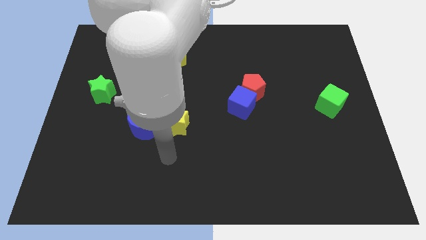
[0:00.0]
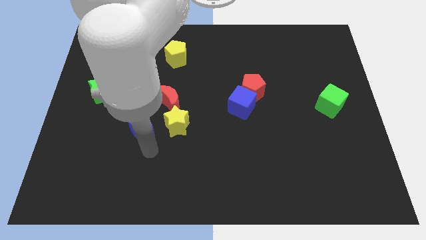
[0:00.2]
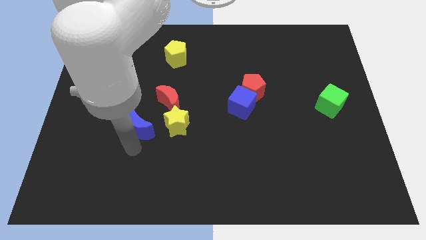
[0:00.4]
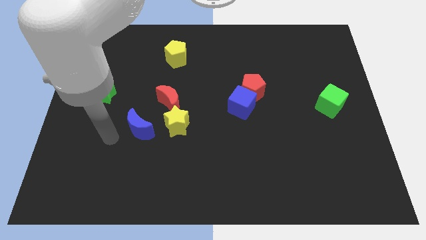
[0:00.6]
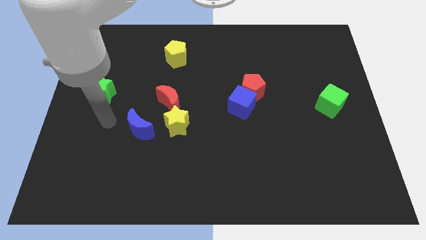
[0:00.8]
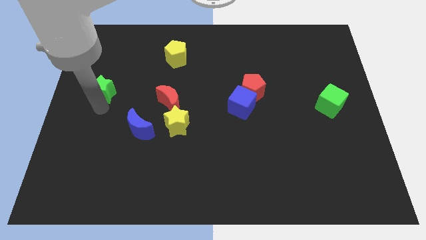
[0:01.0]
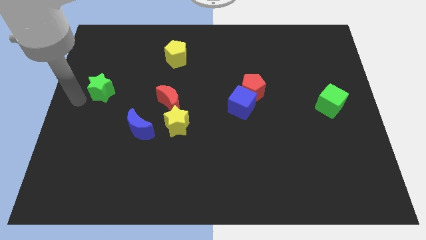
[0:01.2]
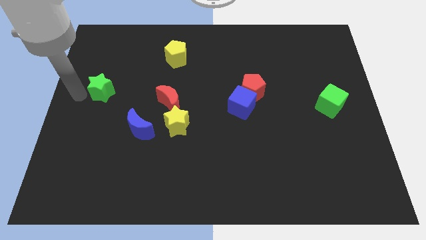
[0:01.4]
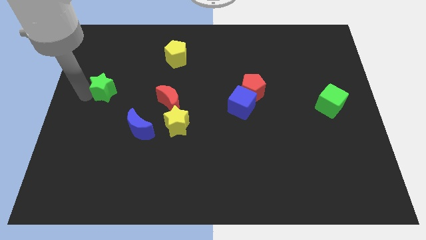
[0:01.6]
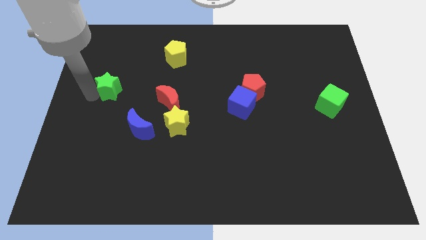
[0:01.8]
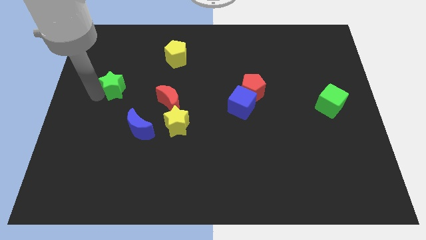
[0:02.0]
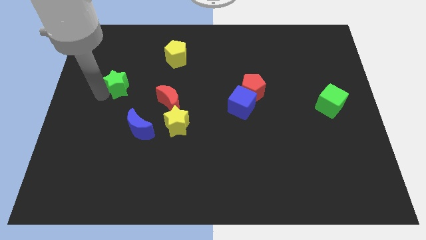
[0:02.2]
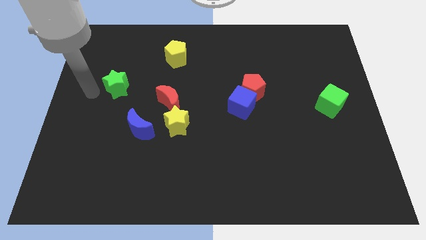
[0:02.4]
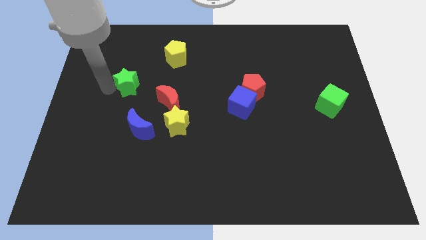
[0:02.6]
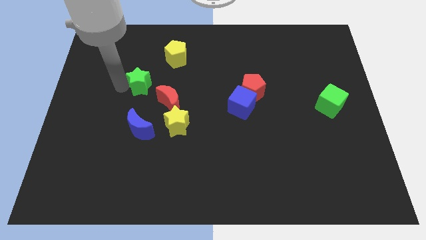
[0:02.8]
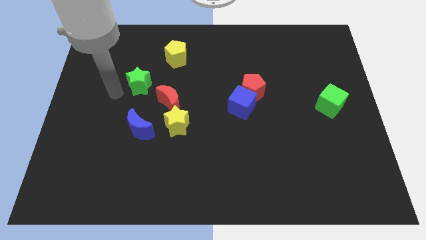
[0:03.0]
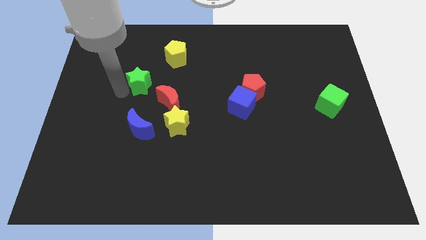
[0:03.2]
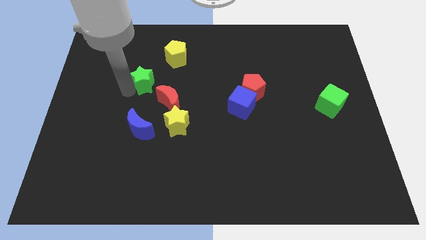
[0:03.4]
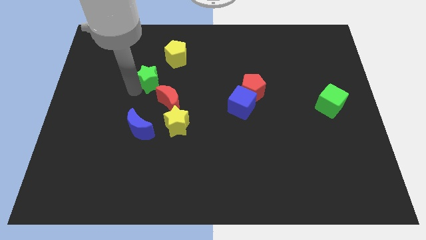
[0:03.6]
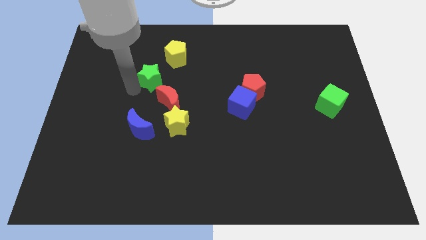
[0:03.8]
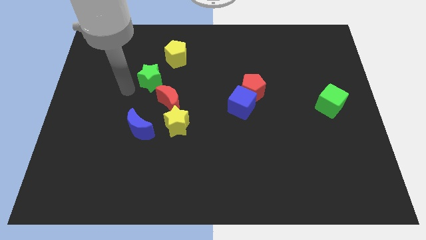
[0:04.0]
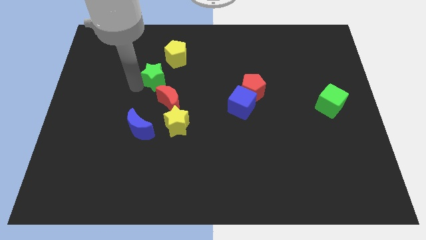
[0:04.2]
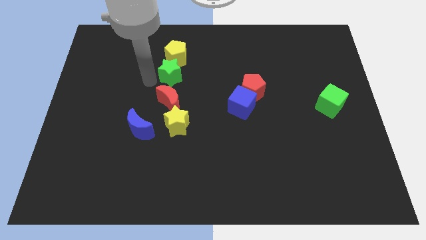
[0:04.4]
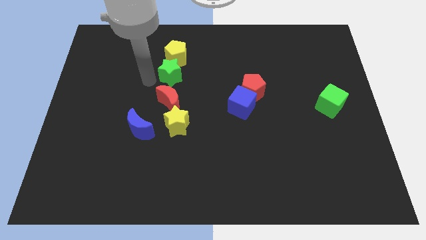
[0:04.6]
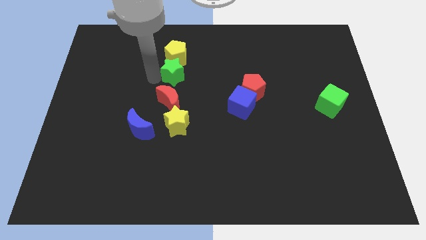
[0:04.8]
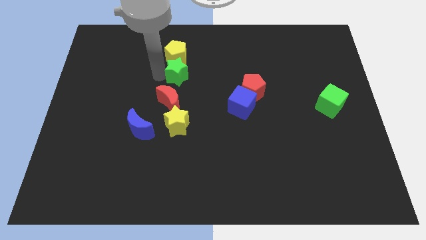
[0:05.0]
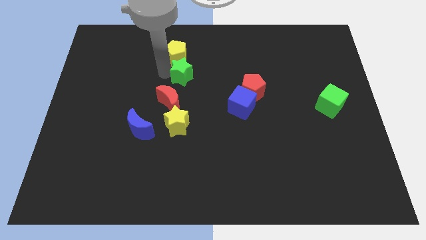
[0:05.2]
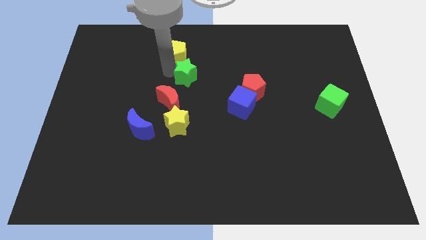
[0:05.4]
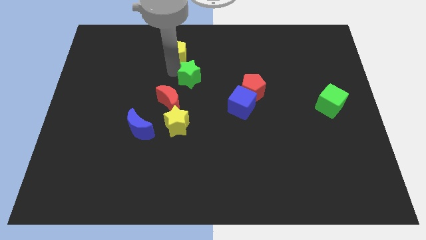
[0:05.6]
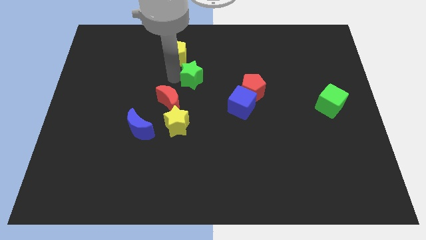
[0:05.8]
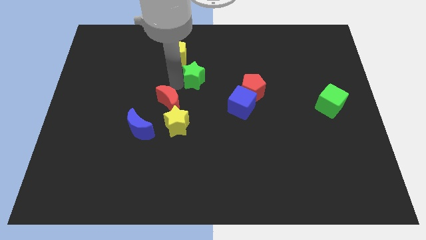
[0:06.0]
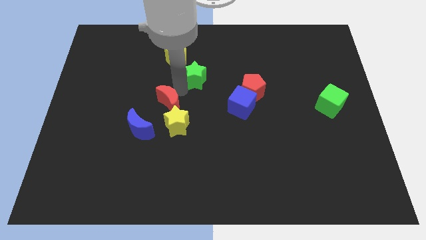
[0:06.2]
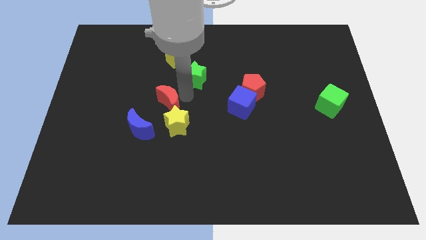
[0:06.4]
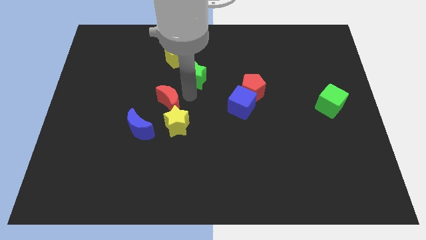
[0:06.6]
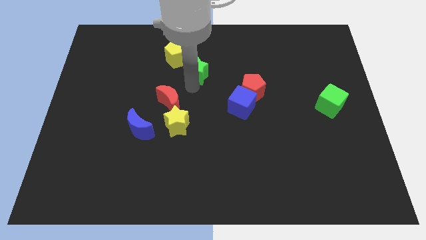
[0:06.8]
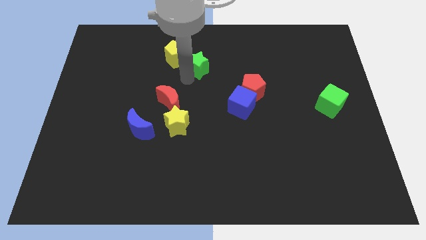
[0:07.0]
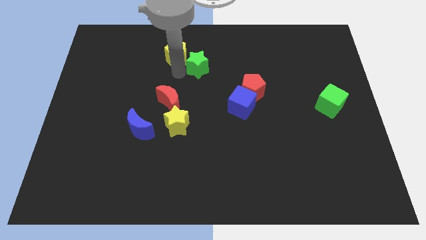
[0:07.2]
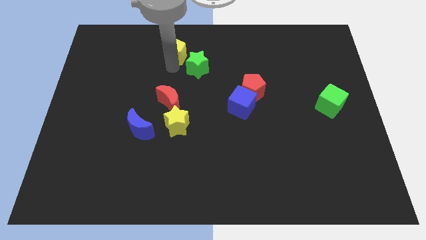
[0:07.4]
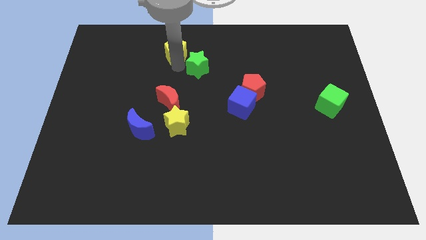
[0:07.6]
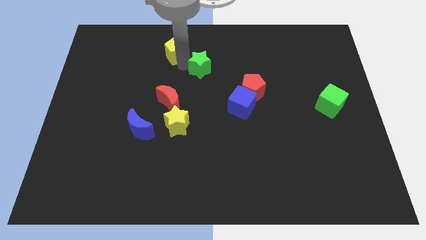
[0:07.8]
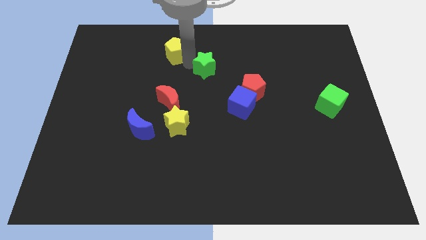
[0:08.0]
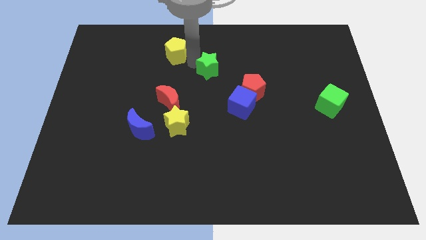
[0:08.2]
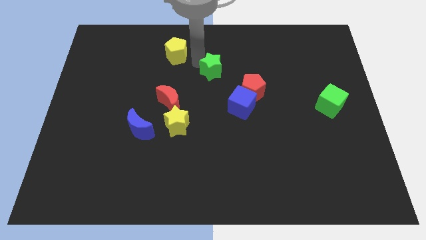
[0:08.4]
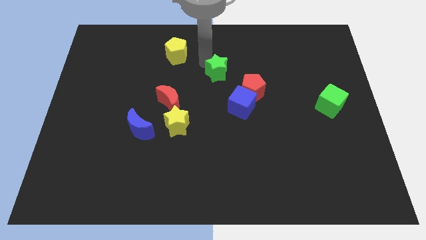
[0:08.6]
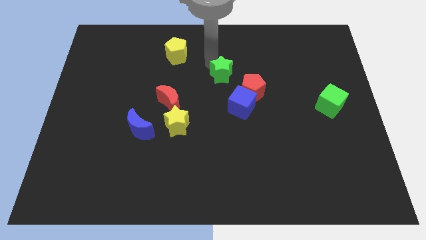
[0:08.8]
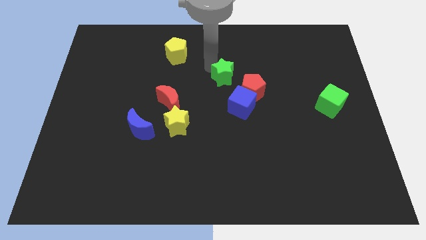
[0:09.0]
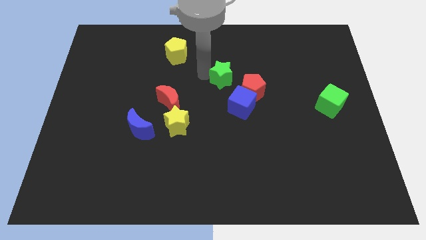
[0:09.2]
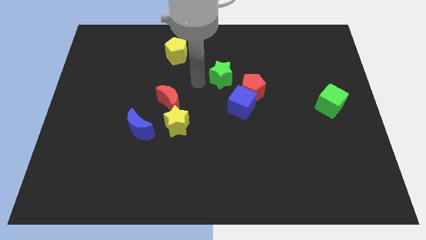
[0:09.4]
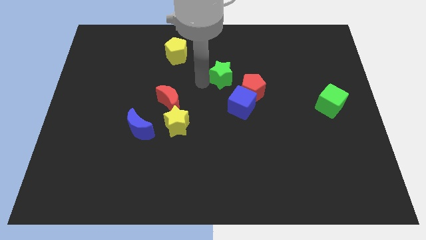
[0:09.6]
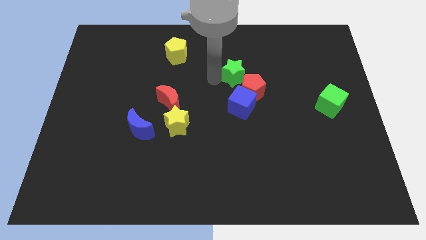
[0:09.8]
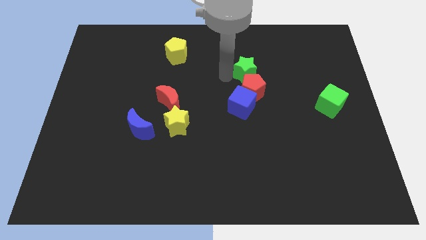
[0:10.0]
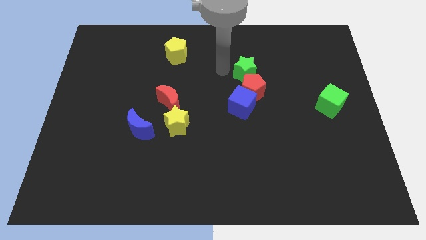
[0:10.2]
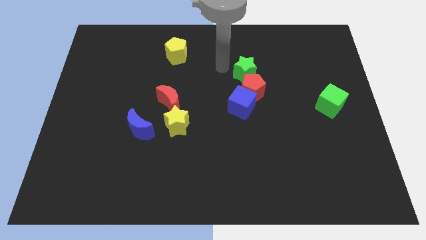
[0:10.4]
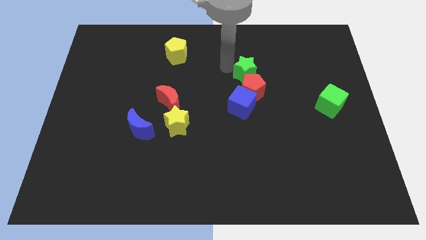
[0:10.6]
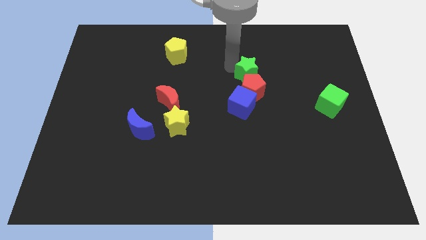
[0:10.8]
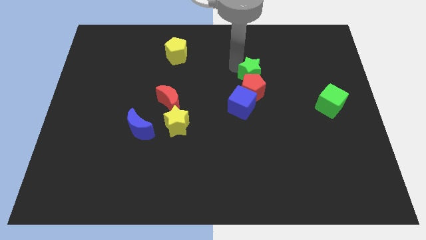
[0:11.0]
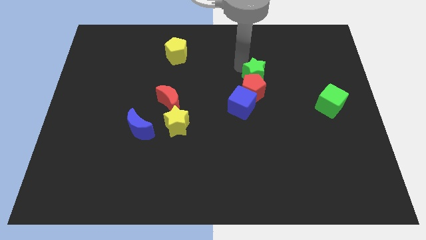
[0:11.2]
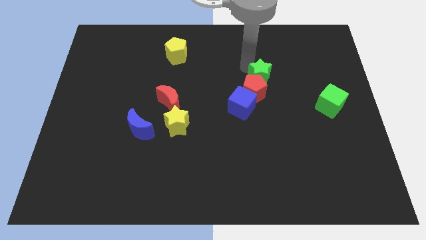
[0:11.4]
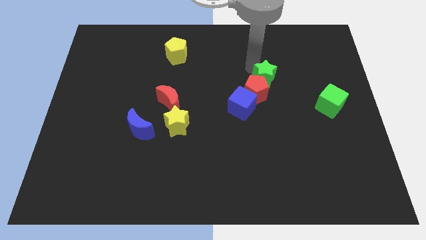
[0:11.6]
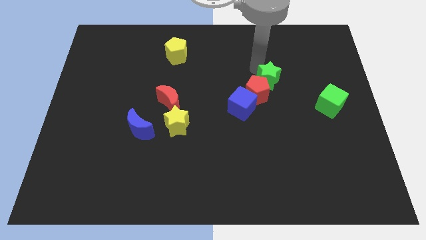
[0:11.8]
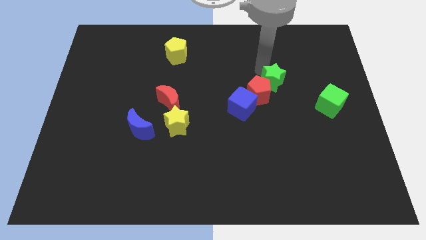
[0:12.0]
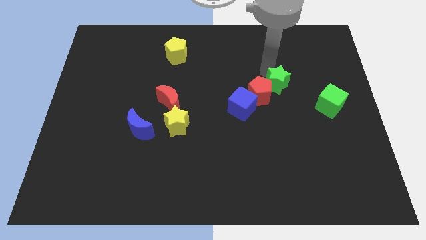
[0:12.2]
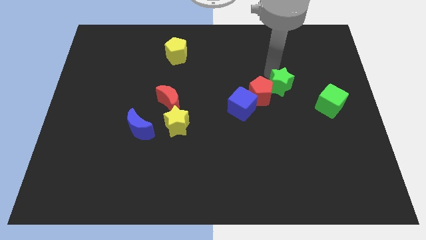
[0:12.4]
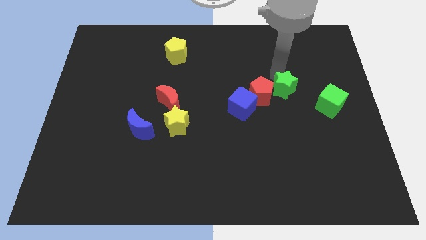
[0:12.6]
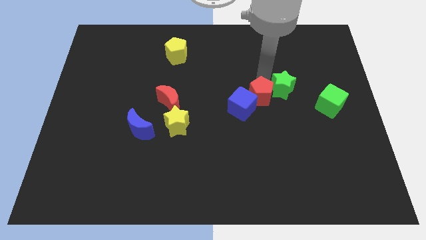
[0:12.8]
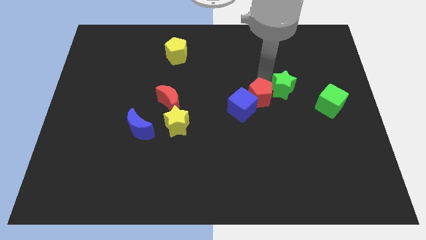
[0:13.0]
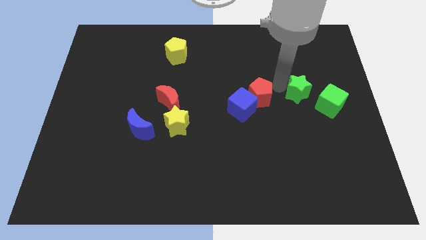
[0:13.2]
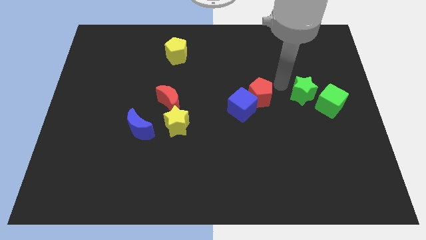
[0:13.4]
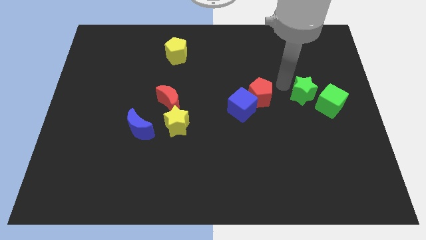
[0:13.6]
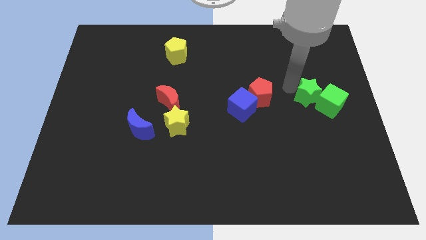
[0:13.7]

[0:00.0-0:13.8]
slide the green star to the green cube
